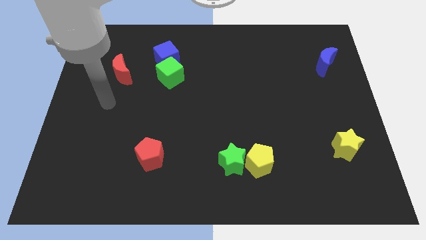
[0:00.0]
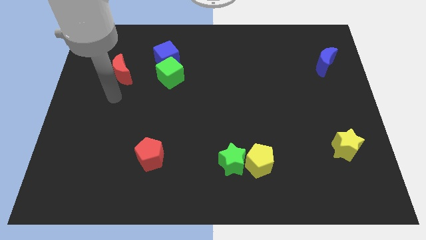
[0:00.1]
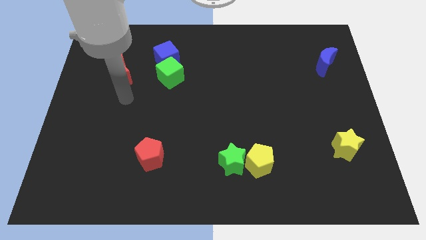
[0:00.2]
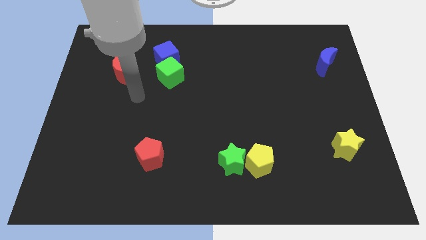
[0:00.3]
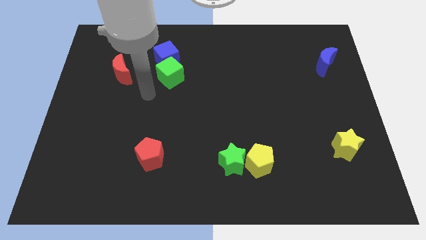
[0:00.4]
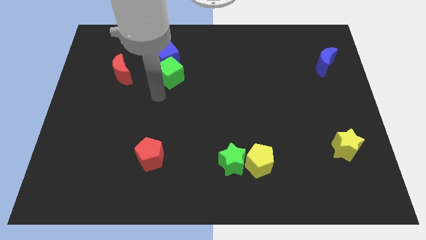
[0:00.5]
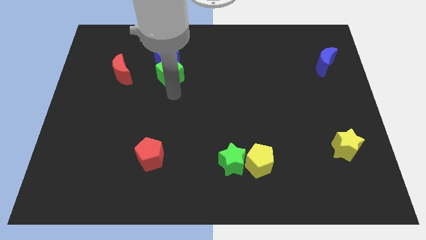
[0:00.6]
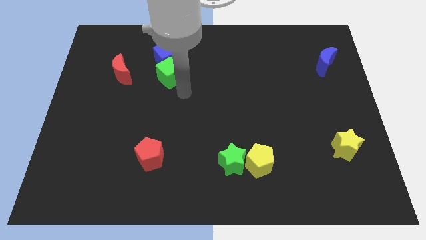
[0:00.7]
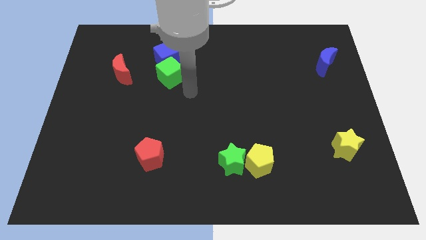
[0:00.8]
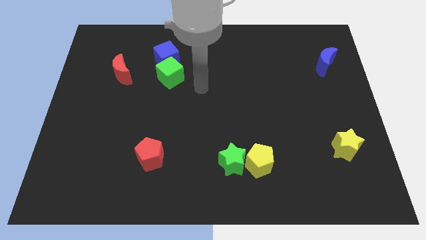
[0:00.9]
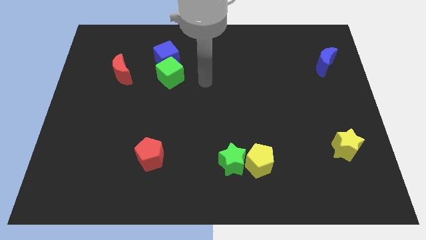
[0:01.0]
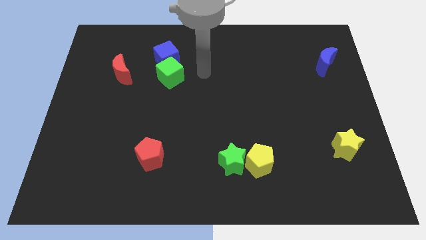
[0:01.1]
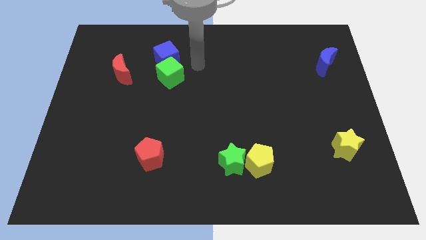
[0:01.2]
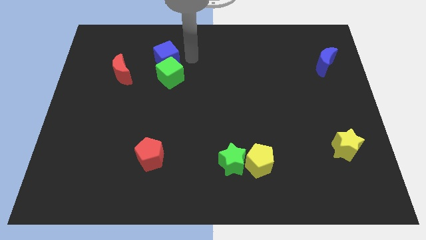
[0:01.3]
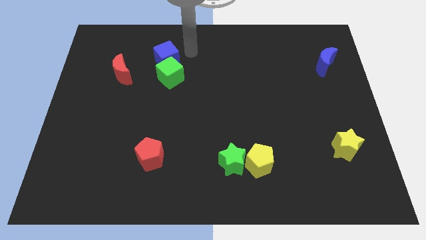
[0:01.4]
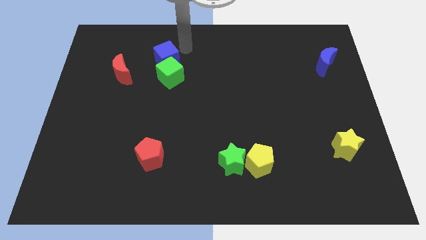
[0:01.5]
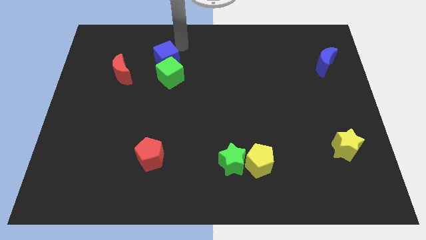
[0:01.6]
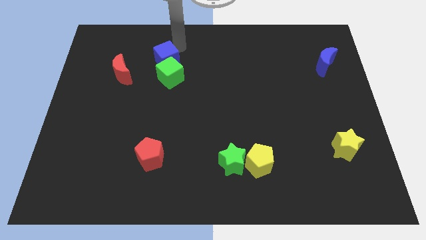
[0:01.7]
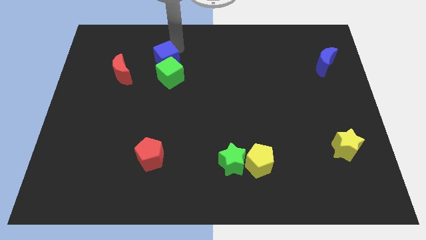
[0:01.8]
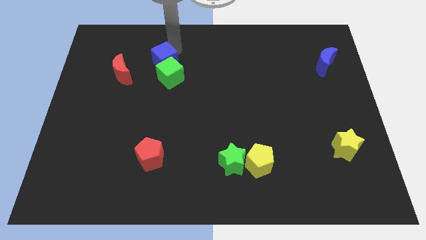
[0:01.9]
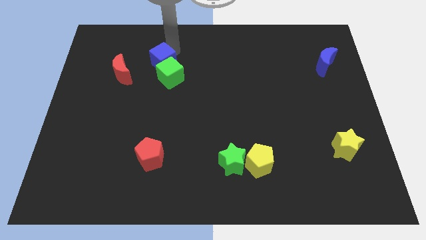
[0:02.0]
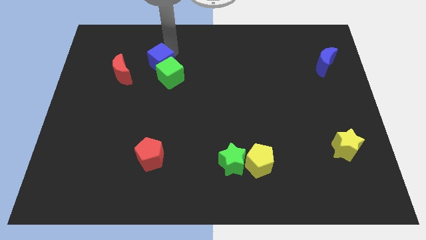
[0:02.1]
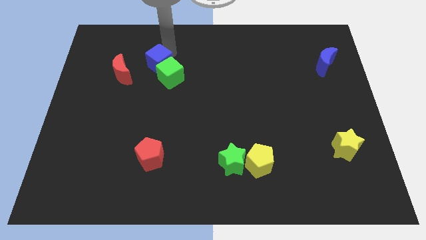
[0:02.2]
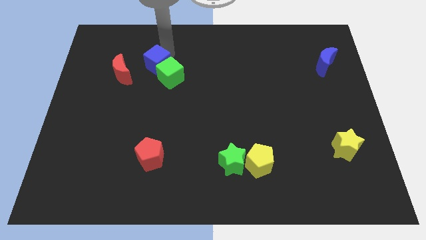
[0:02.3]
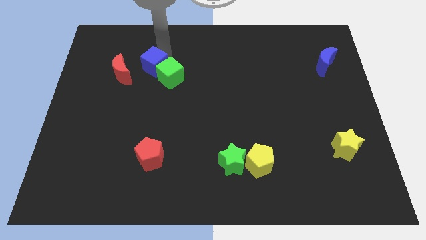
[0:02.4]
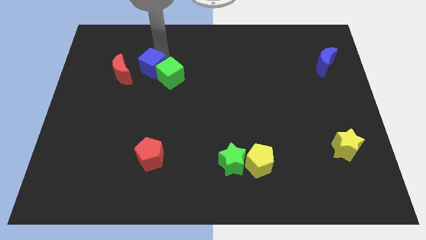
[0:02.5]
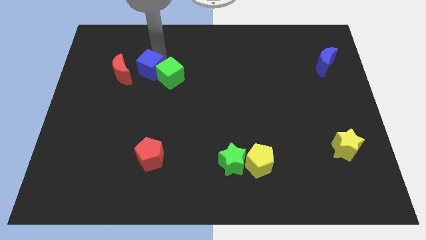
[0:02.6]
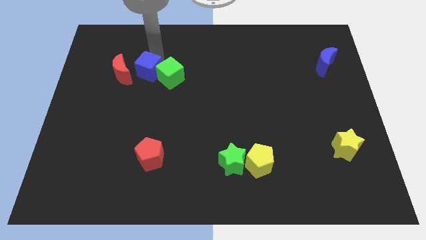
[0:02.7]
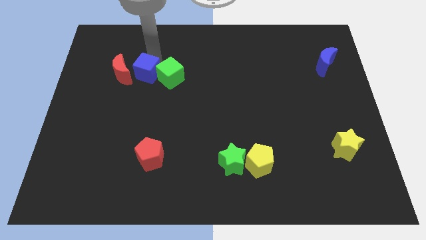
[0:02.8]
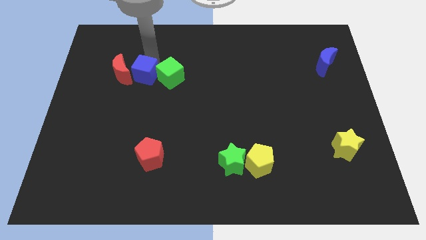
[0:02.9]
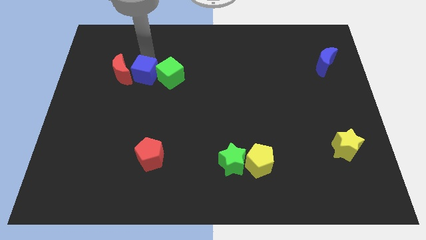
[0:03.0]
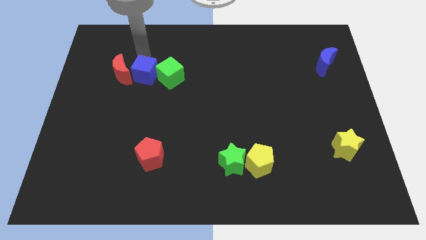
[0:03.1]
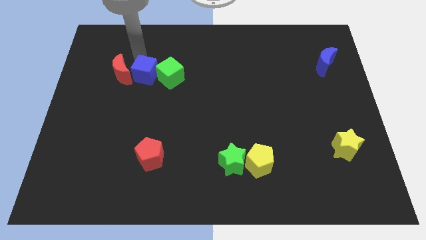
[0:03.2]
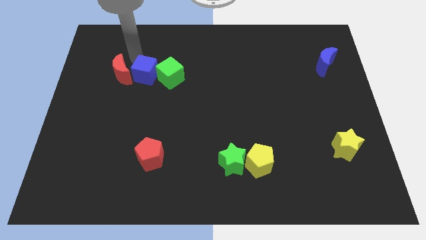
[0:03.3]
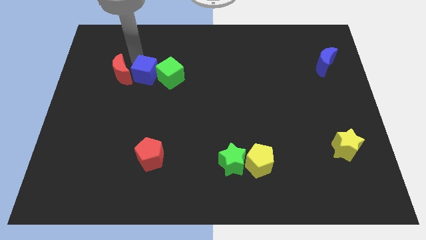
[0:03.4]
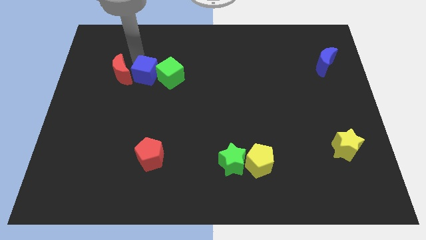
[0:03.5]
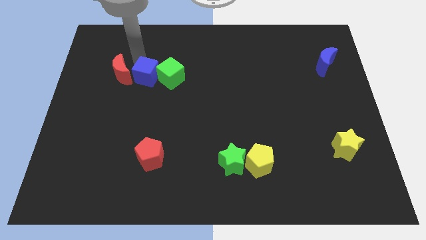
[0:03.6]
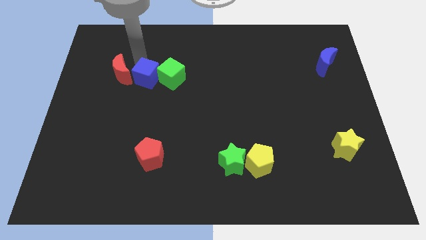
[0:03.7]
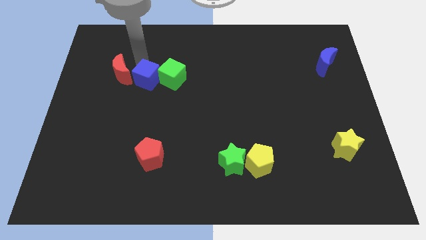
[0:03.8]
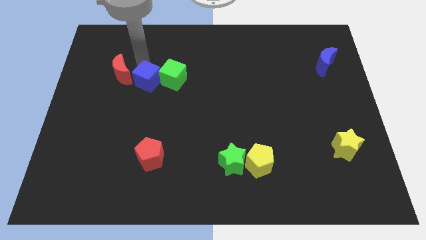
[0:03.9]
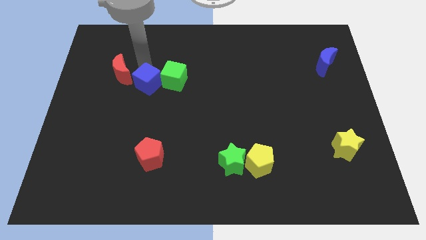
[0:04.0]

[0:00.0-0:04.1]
move the blue cube a bit downwards

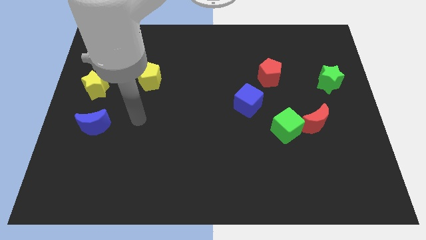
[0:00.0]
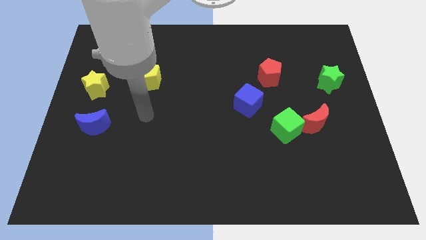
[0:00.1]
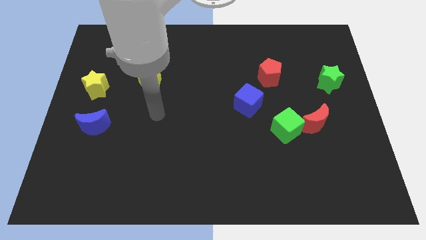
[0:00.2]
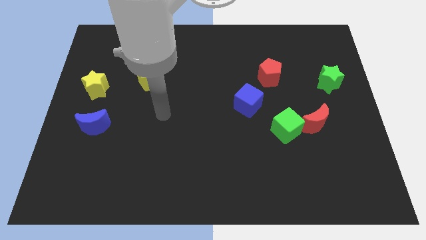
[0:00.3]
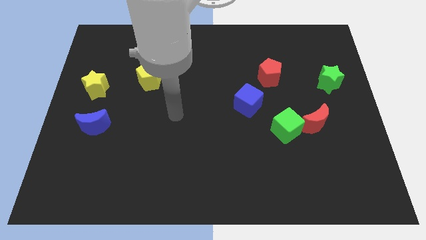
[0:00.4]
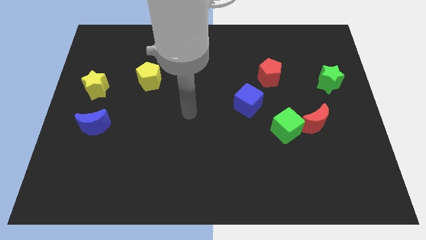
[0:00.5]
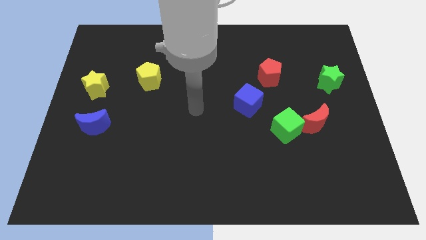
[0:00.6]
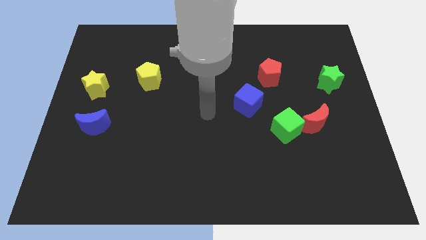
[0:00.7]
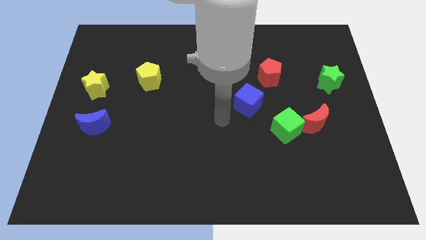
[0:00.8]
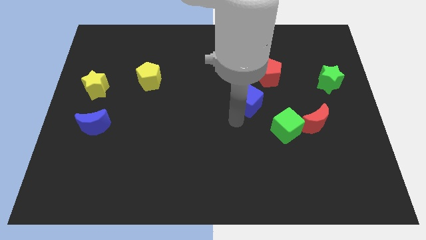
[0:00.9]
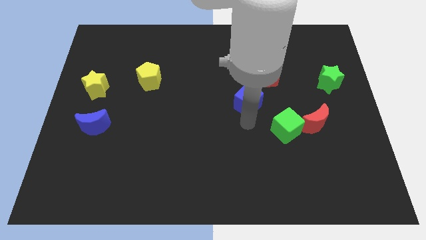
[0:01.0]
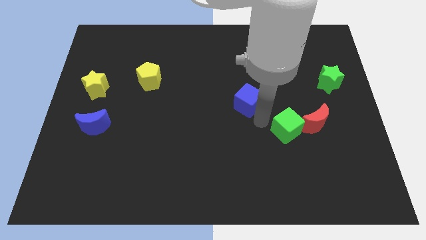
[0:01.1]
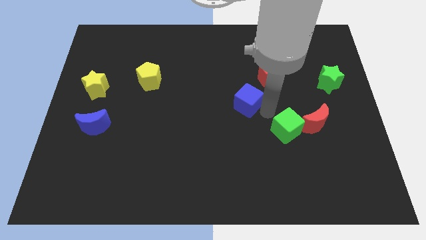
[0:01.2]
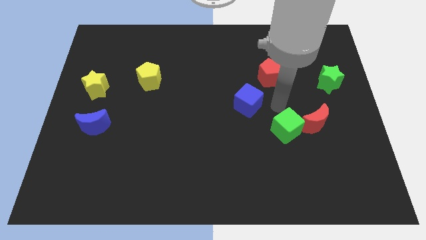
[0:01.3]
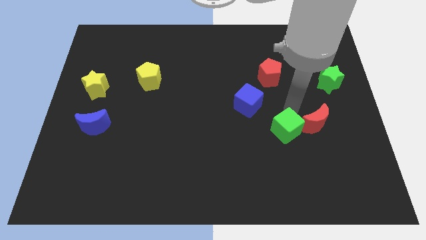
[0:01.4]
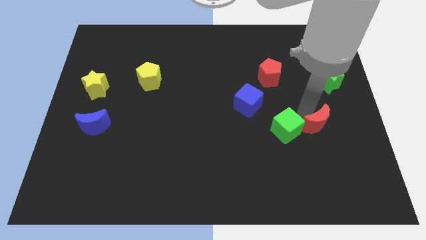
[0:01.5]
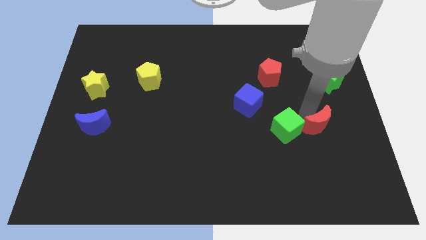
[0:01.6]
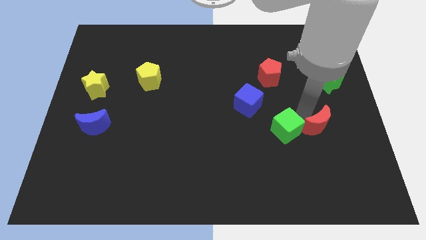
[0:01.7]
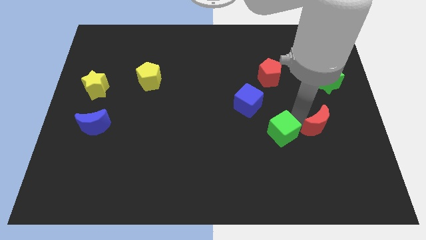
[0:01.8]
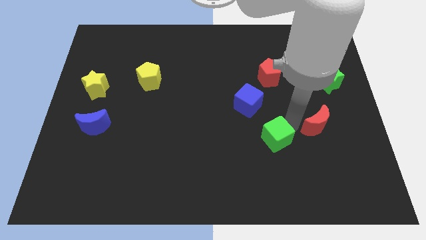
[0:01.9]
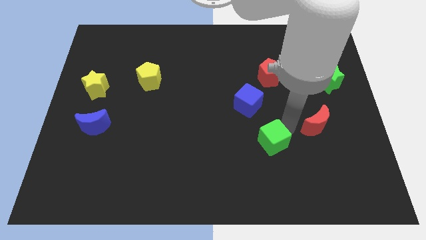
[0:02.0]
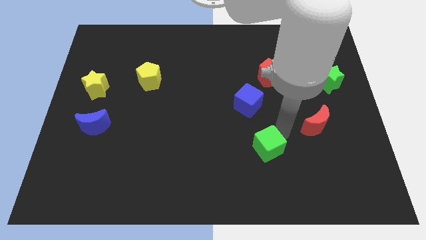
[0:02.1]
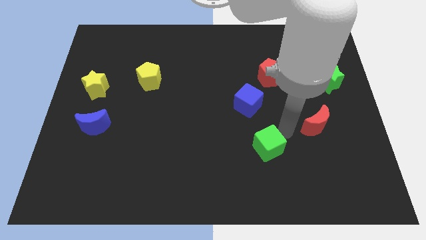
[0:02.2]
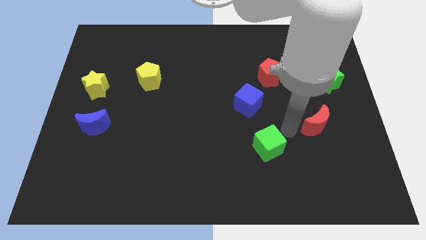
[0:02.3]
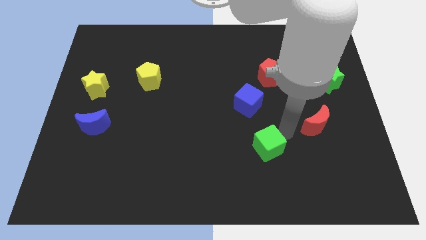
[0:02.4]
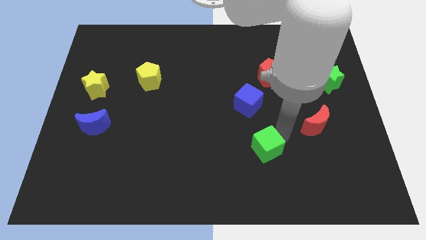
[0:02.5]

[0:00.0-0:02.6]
slightly push the green cube down and to the left

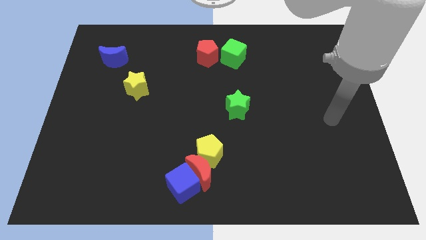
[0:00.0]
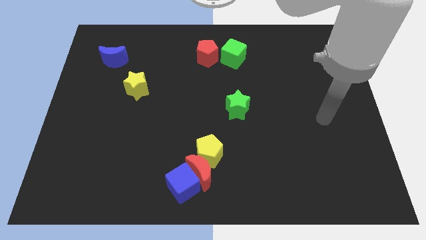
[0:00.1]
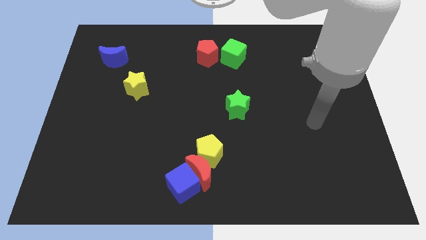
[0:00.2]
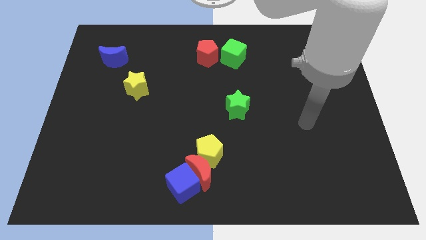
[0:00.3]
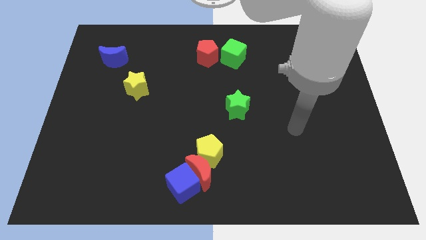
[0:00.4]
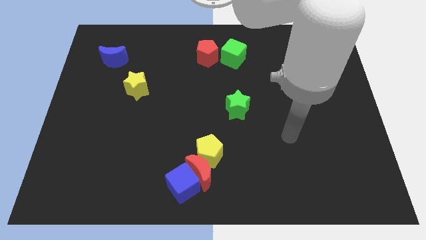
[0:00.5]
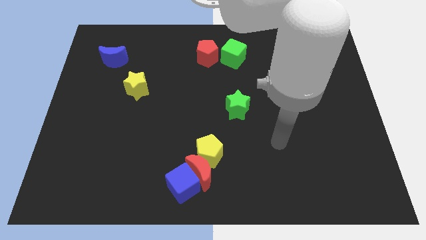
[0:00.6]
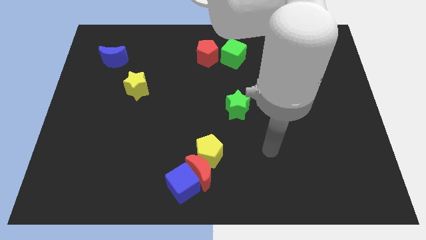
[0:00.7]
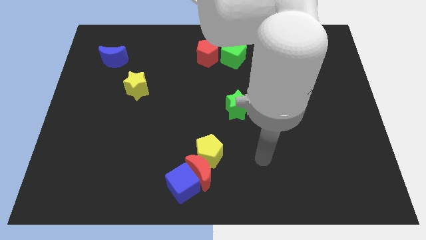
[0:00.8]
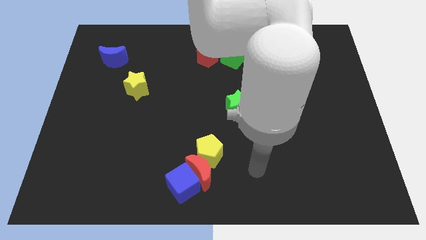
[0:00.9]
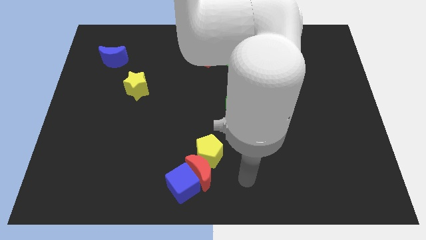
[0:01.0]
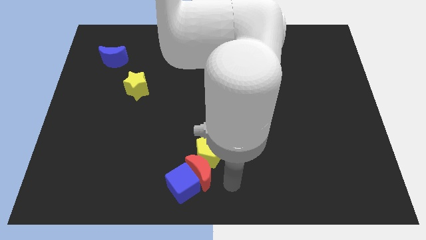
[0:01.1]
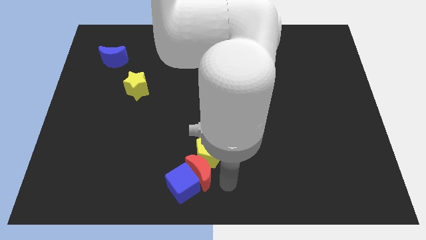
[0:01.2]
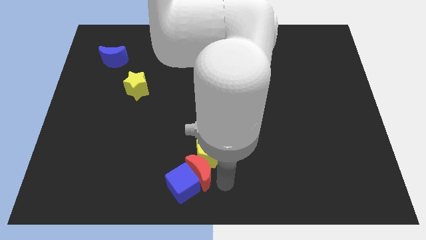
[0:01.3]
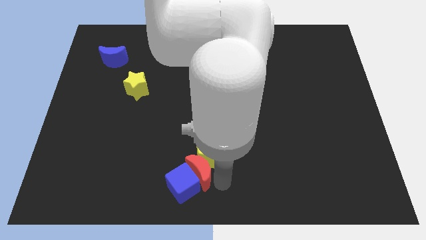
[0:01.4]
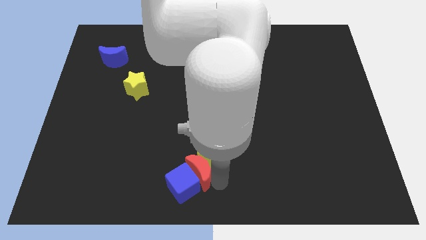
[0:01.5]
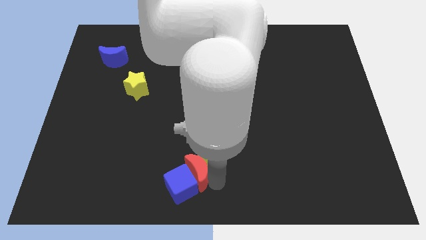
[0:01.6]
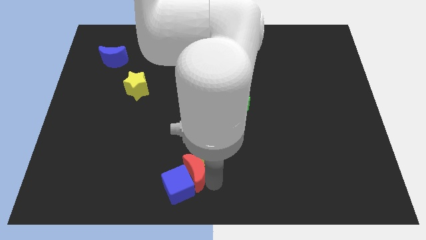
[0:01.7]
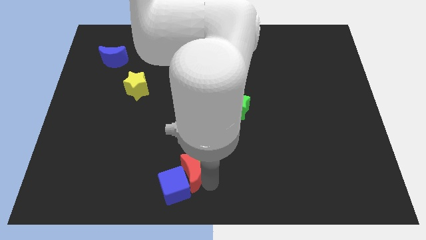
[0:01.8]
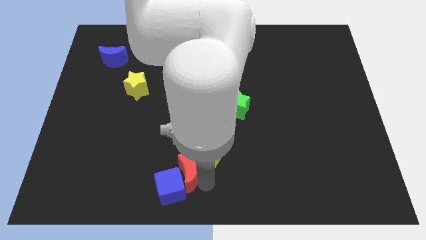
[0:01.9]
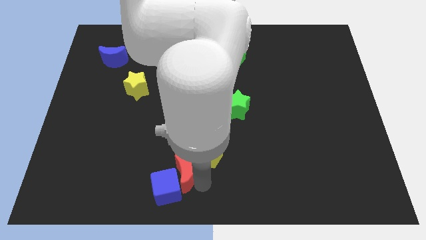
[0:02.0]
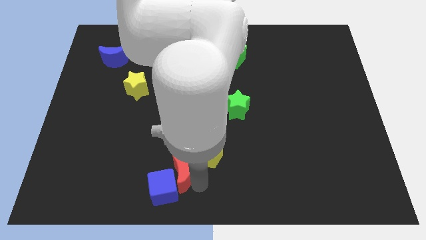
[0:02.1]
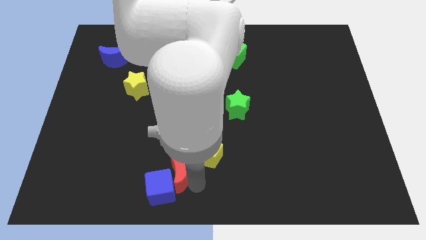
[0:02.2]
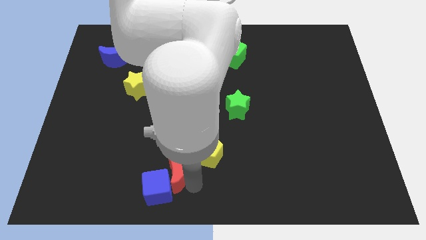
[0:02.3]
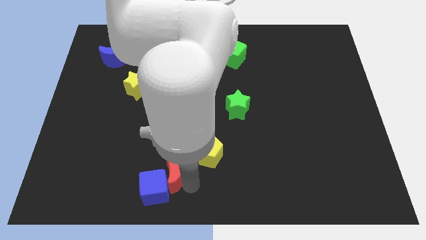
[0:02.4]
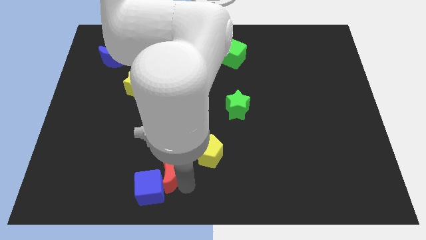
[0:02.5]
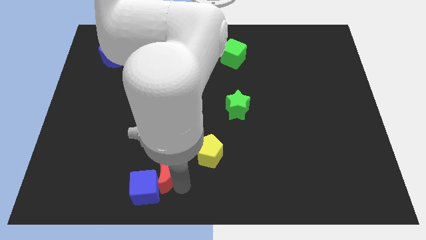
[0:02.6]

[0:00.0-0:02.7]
slide the red moon to the left a bit
